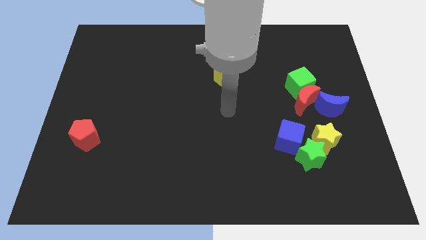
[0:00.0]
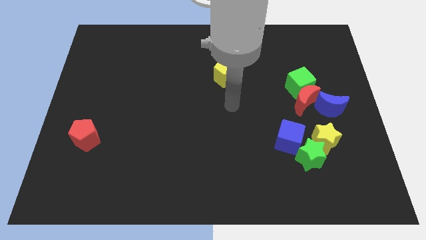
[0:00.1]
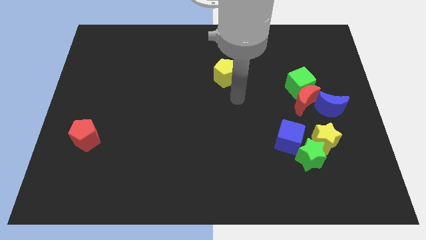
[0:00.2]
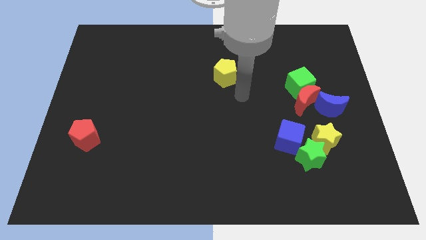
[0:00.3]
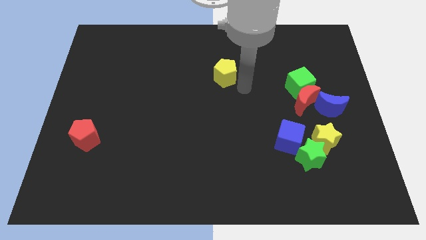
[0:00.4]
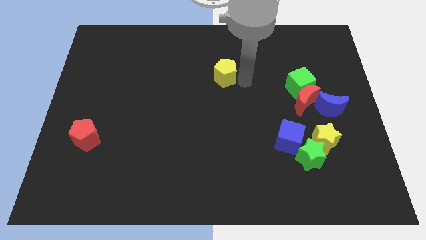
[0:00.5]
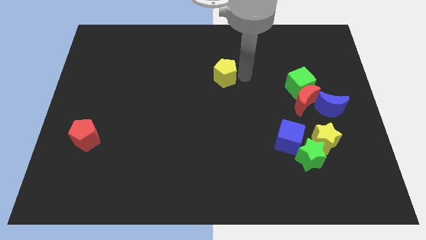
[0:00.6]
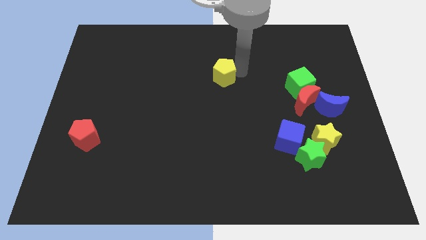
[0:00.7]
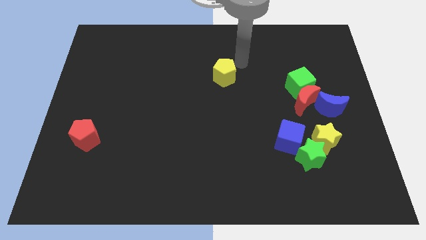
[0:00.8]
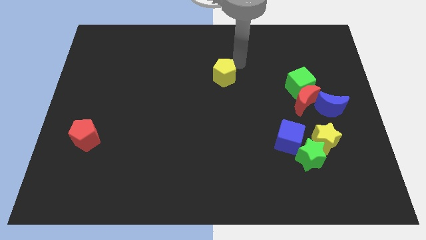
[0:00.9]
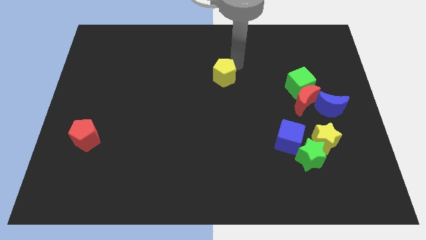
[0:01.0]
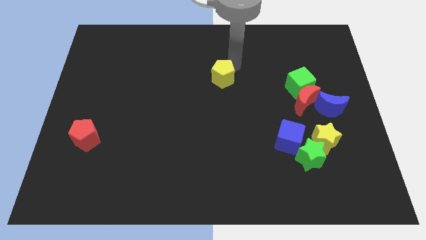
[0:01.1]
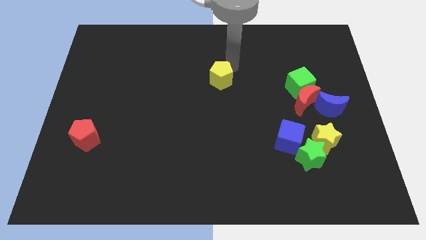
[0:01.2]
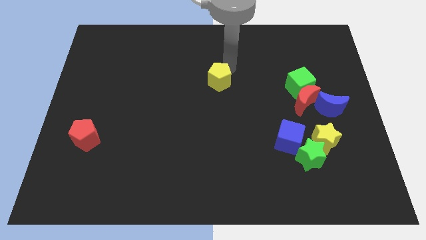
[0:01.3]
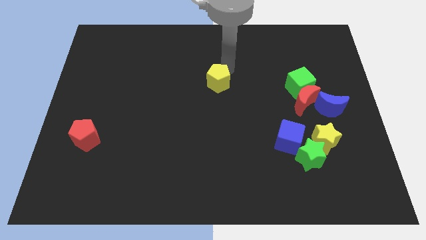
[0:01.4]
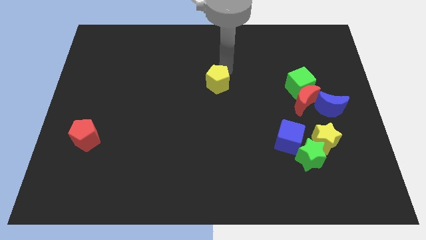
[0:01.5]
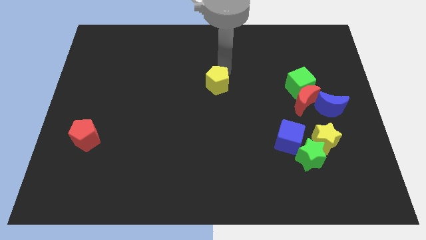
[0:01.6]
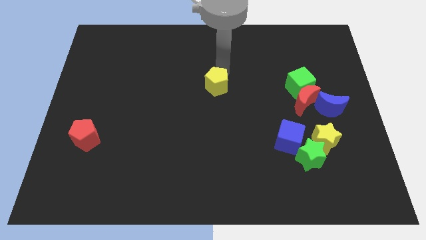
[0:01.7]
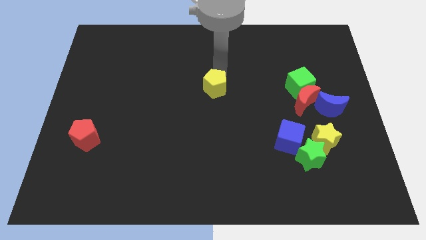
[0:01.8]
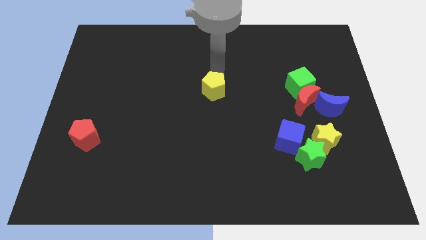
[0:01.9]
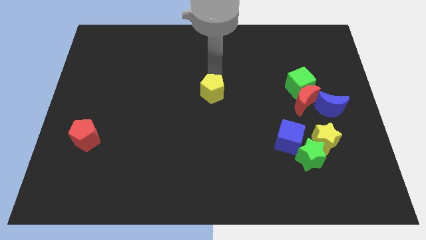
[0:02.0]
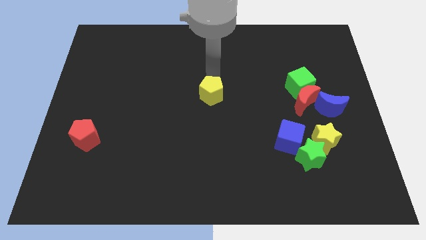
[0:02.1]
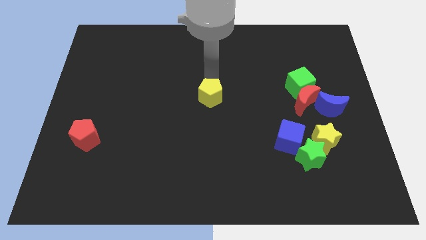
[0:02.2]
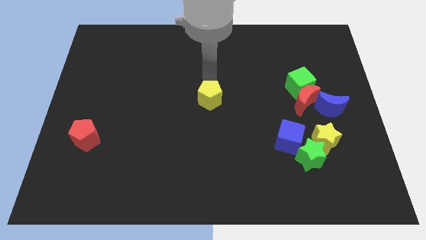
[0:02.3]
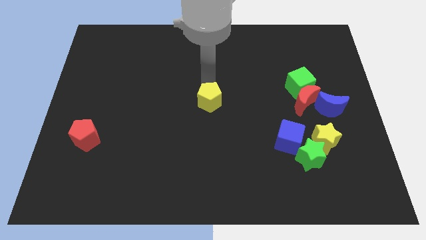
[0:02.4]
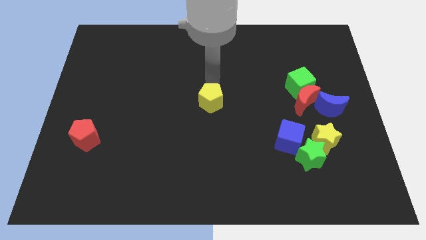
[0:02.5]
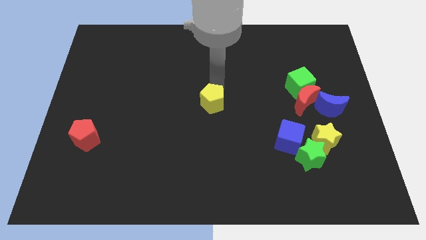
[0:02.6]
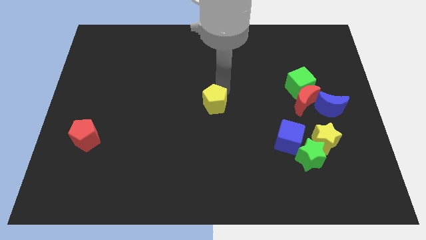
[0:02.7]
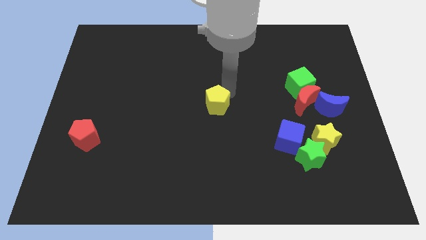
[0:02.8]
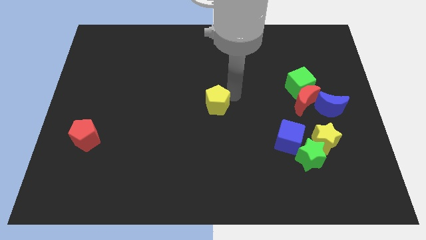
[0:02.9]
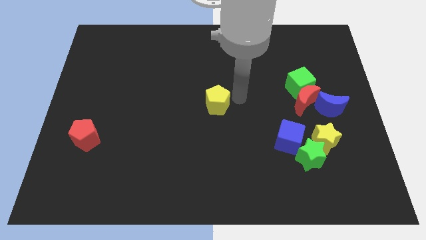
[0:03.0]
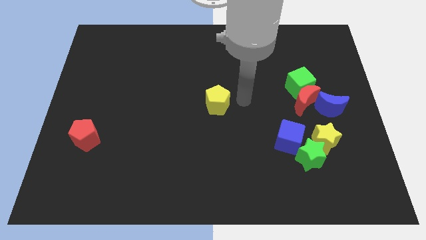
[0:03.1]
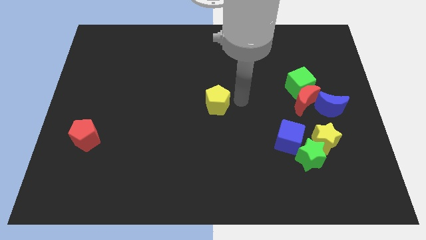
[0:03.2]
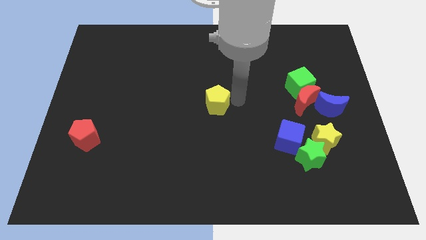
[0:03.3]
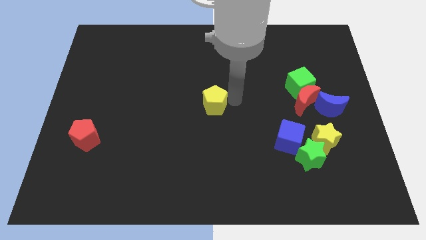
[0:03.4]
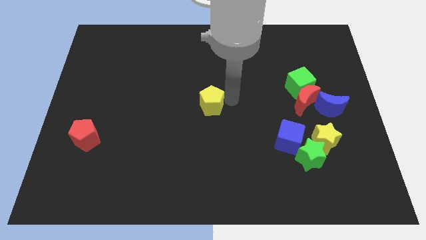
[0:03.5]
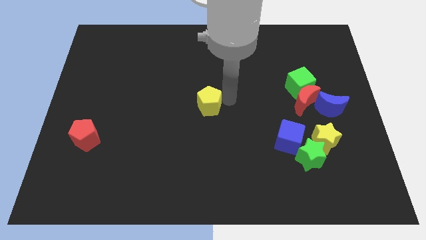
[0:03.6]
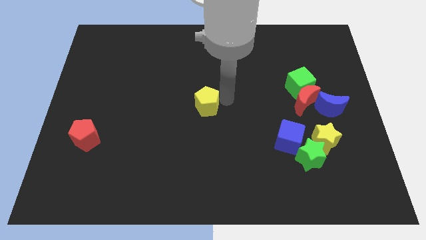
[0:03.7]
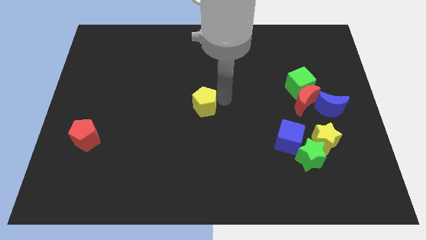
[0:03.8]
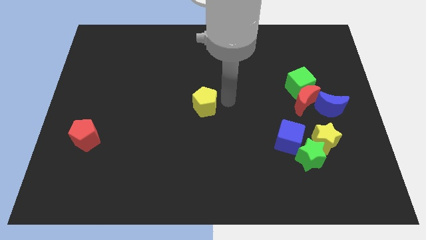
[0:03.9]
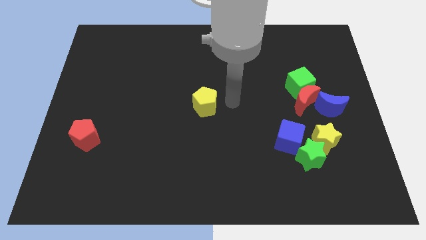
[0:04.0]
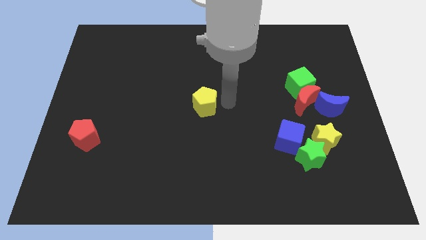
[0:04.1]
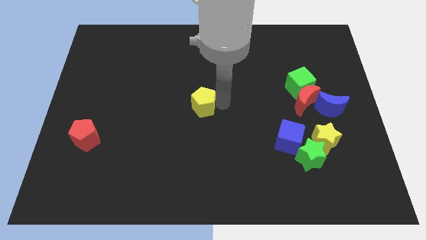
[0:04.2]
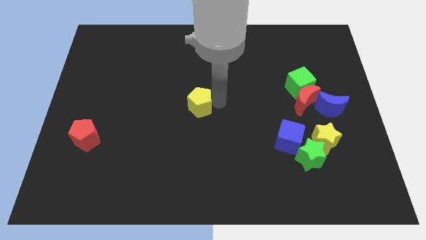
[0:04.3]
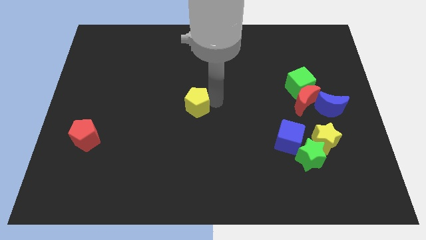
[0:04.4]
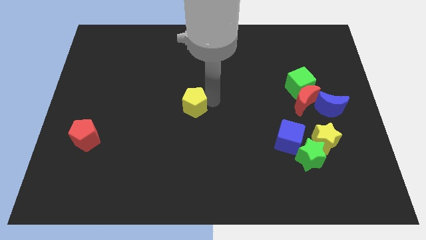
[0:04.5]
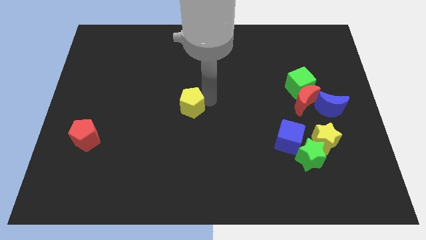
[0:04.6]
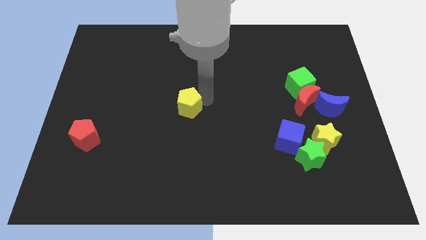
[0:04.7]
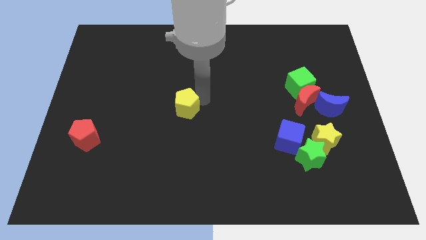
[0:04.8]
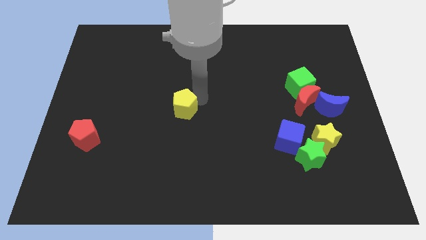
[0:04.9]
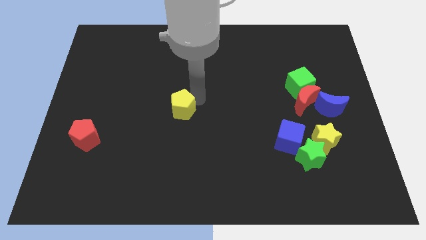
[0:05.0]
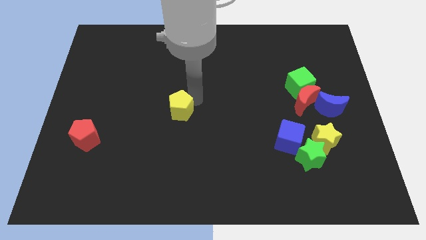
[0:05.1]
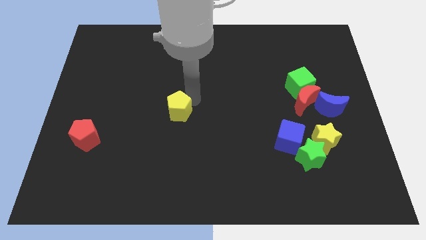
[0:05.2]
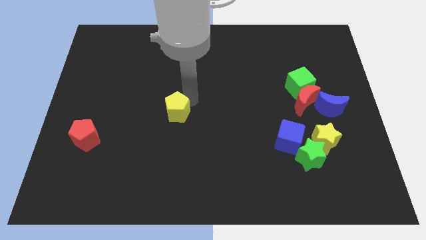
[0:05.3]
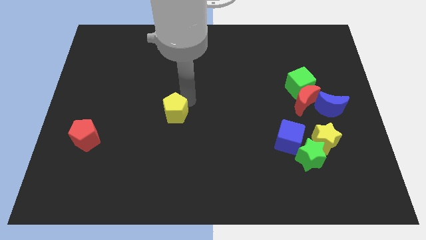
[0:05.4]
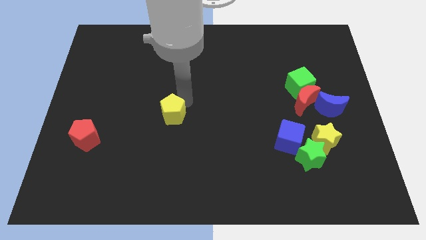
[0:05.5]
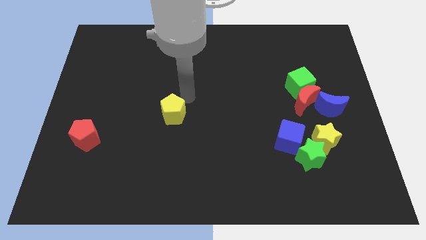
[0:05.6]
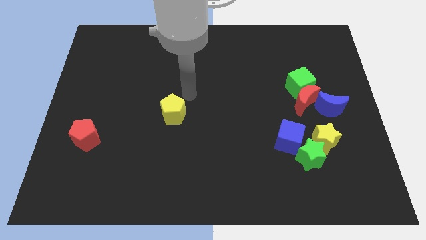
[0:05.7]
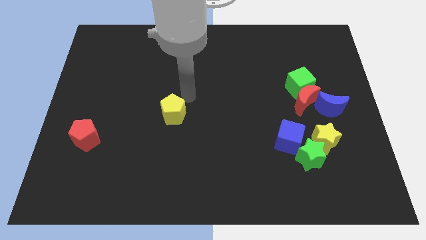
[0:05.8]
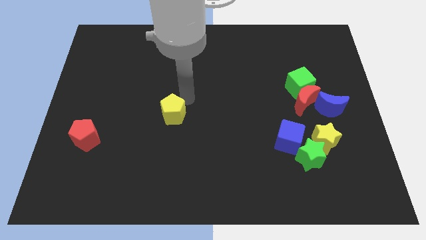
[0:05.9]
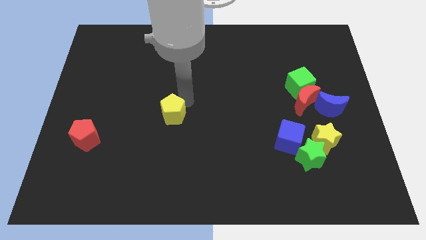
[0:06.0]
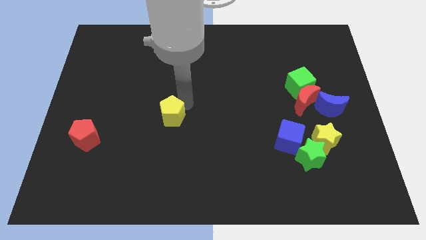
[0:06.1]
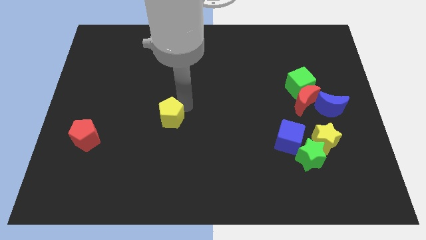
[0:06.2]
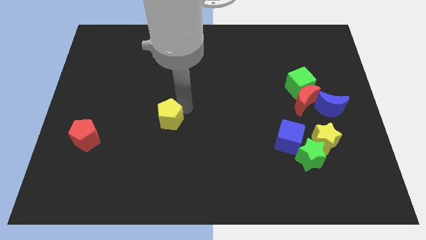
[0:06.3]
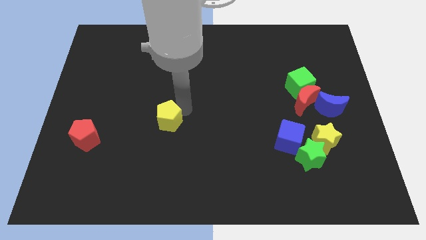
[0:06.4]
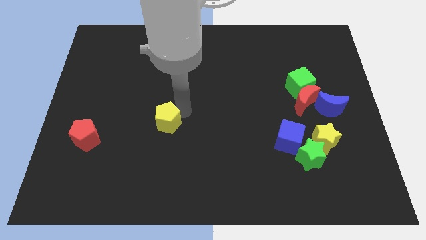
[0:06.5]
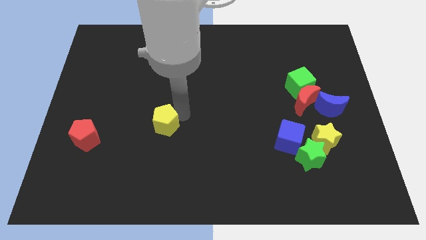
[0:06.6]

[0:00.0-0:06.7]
push the yellow pentagon diagonally downwards and to the left

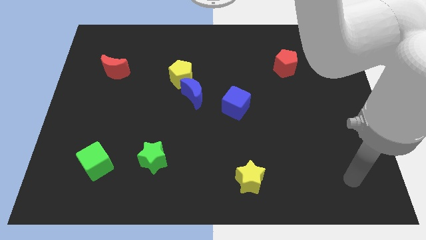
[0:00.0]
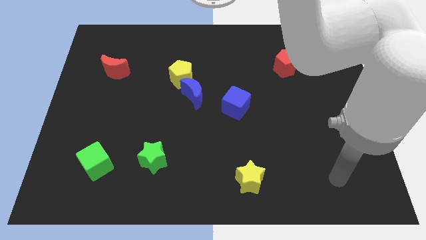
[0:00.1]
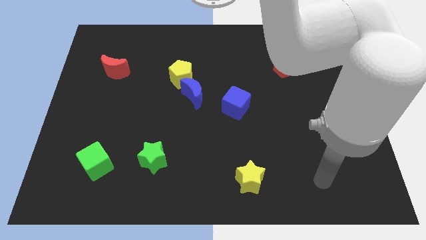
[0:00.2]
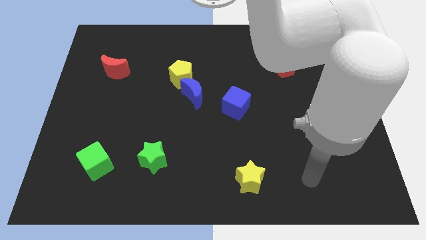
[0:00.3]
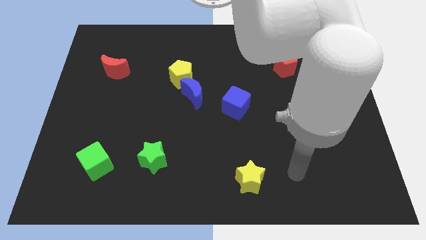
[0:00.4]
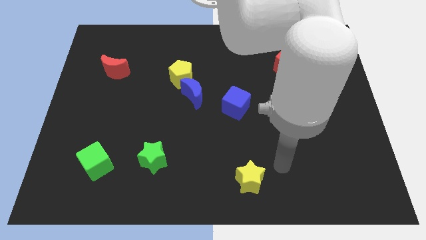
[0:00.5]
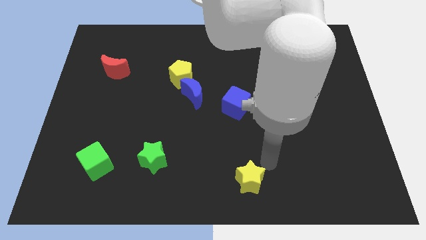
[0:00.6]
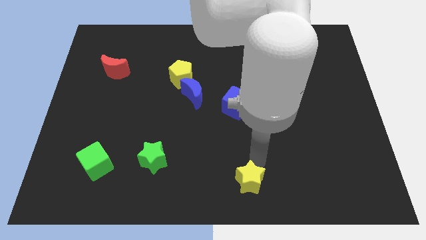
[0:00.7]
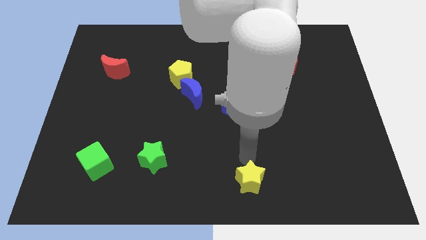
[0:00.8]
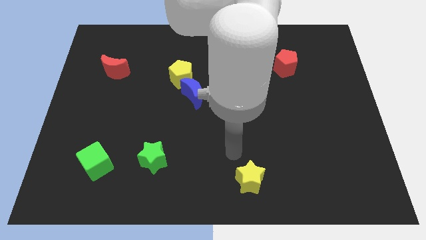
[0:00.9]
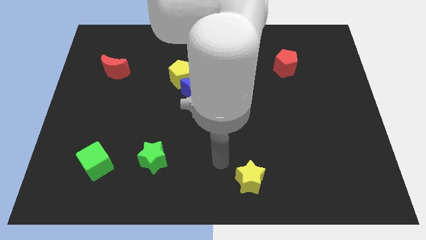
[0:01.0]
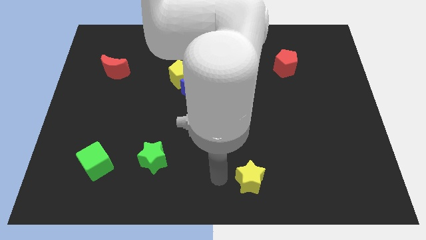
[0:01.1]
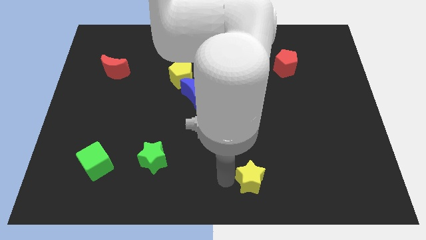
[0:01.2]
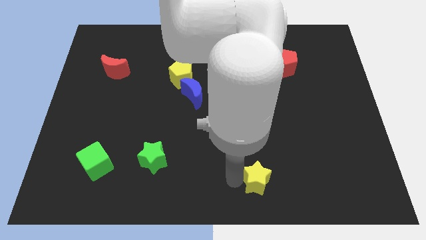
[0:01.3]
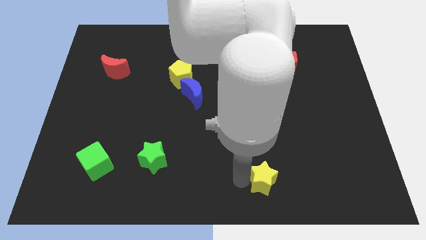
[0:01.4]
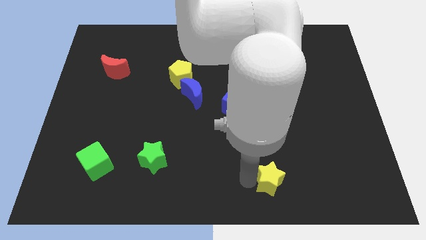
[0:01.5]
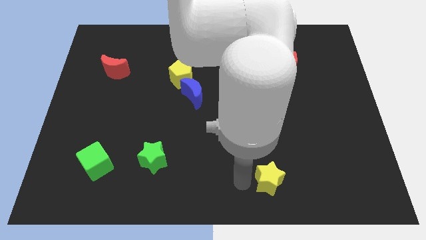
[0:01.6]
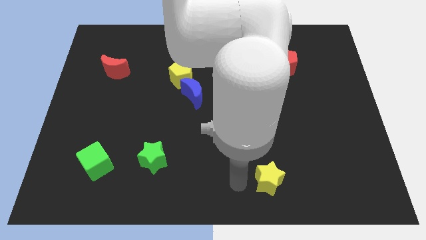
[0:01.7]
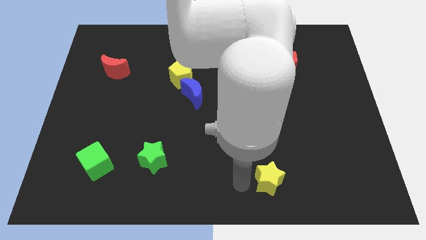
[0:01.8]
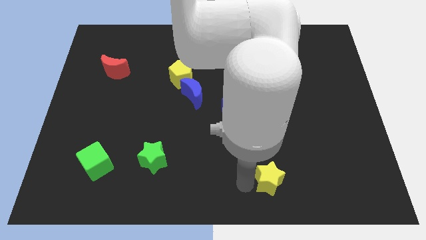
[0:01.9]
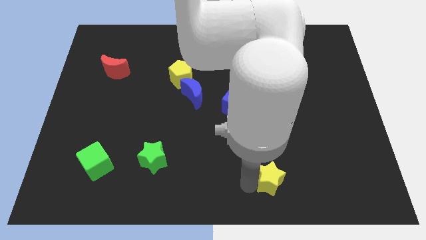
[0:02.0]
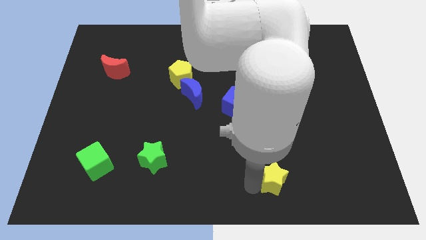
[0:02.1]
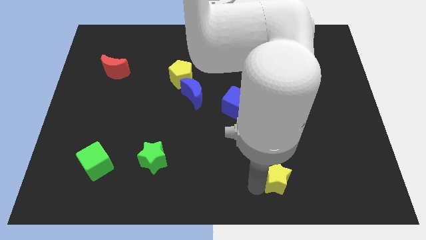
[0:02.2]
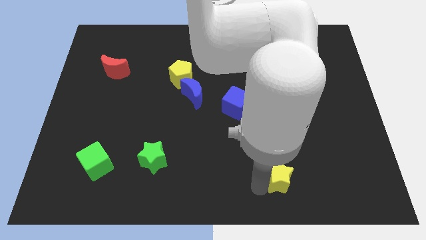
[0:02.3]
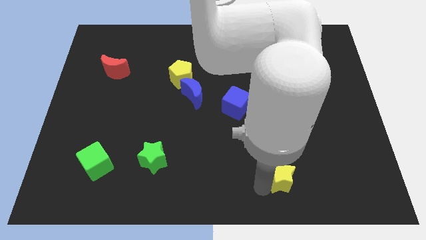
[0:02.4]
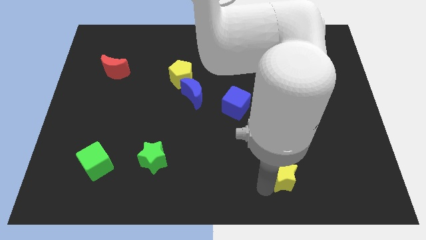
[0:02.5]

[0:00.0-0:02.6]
push the yellow star slightly right
